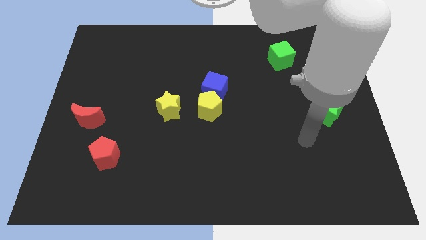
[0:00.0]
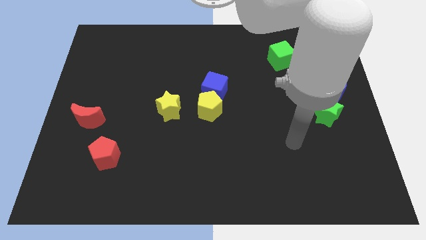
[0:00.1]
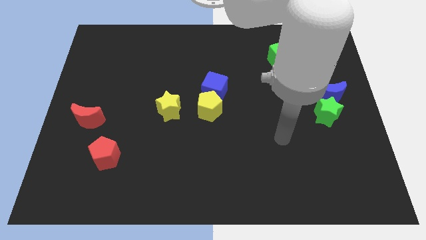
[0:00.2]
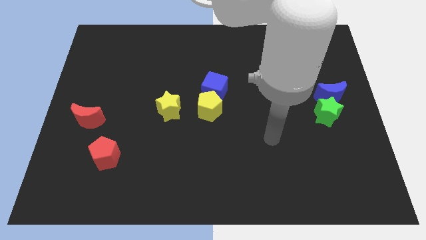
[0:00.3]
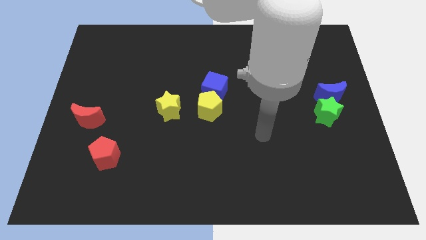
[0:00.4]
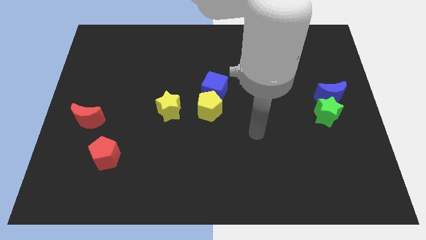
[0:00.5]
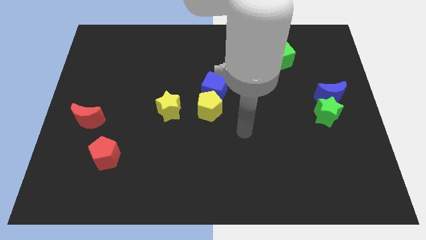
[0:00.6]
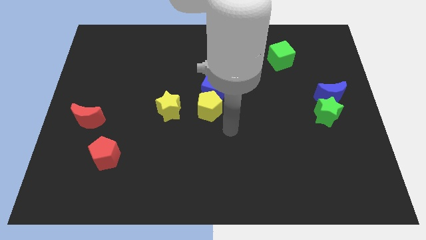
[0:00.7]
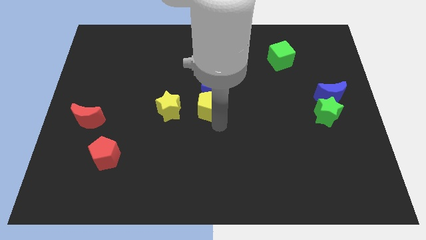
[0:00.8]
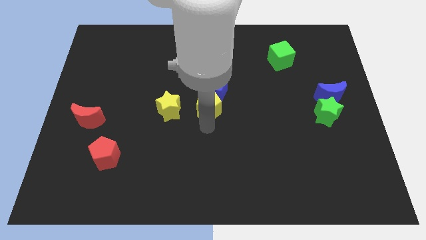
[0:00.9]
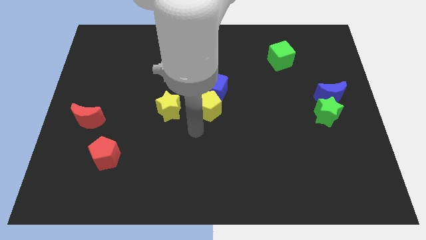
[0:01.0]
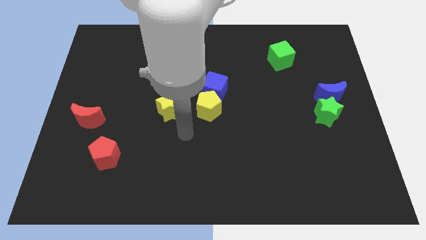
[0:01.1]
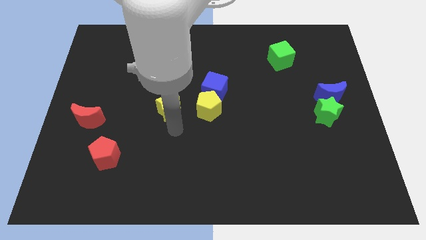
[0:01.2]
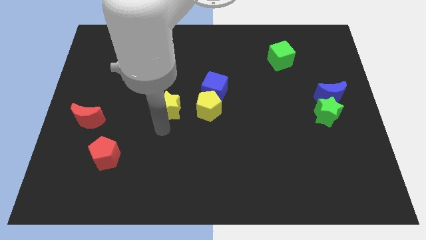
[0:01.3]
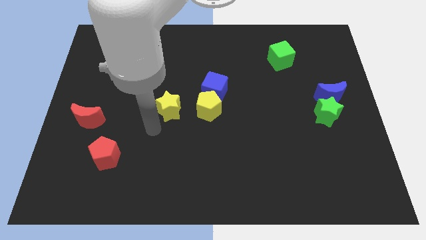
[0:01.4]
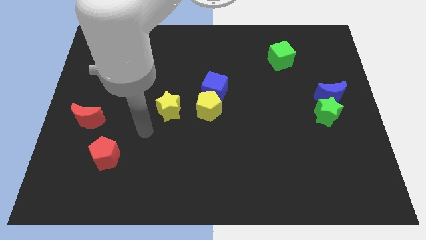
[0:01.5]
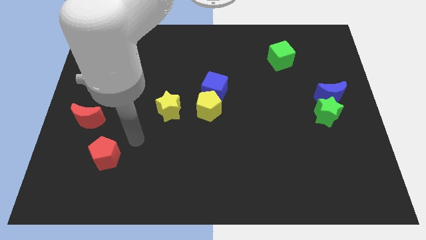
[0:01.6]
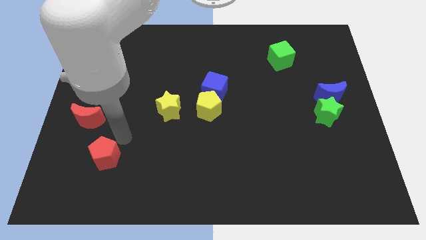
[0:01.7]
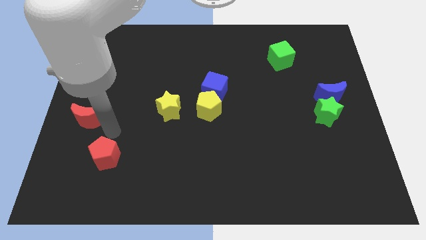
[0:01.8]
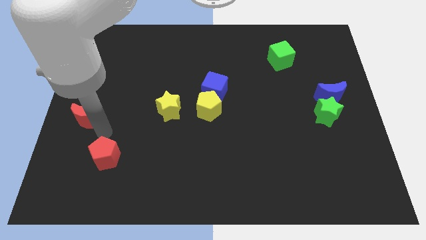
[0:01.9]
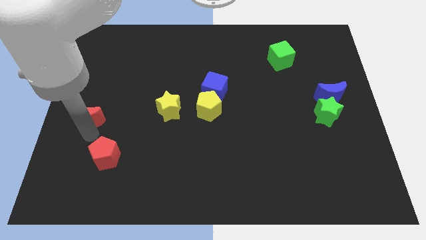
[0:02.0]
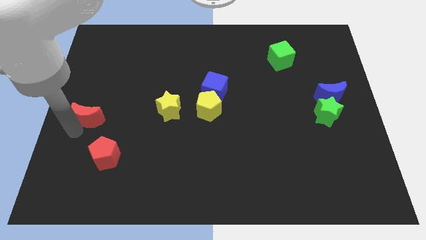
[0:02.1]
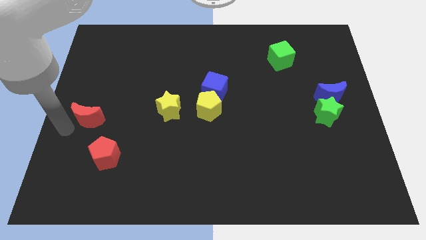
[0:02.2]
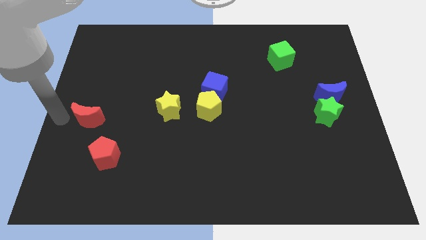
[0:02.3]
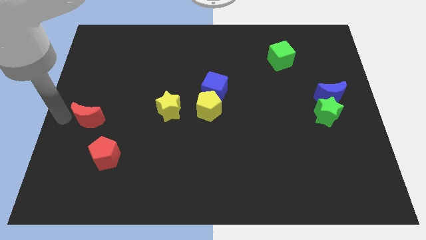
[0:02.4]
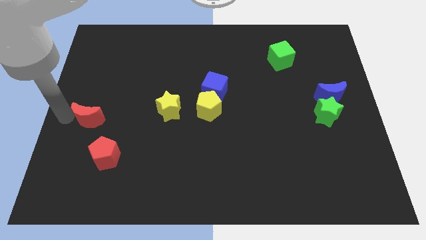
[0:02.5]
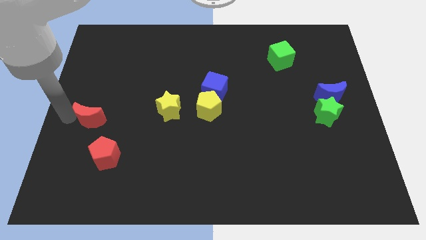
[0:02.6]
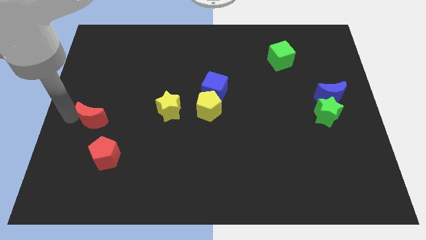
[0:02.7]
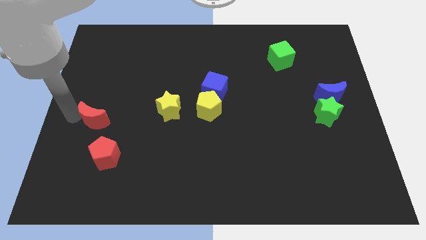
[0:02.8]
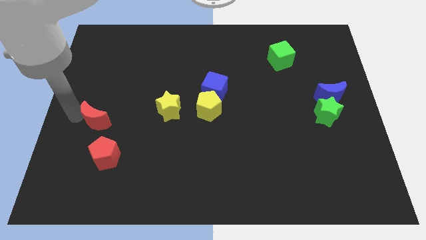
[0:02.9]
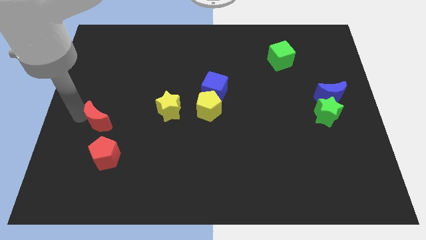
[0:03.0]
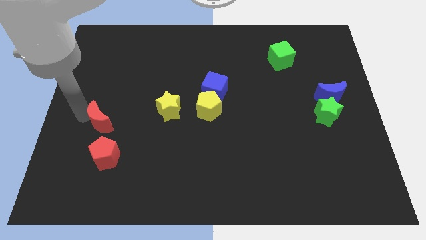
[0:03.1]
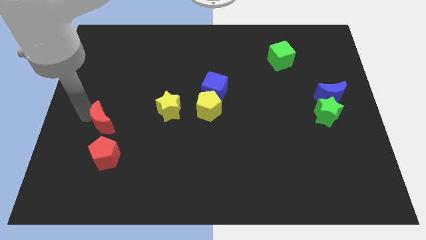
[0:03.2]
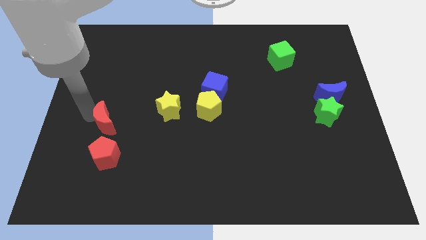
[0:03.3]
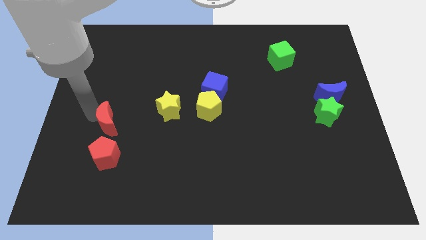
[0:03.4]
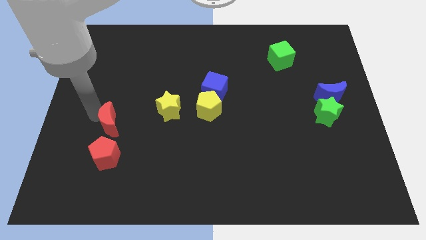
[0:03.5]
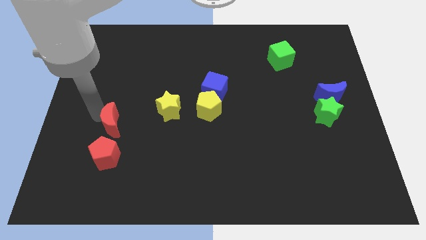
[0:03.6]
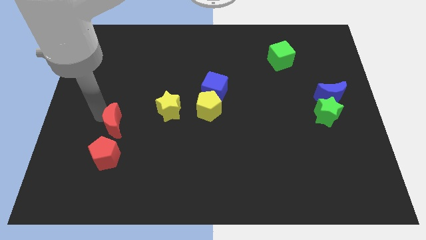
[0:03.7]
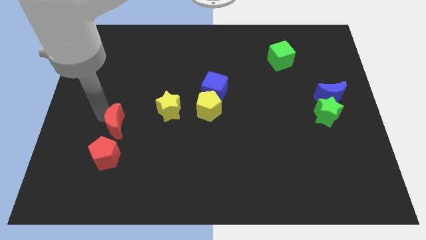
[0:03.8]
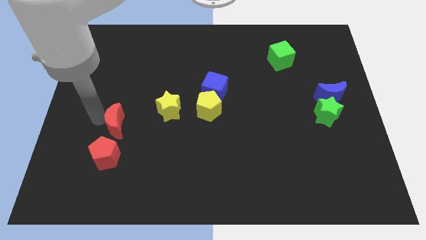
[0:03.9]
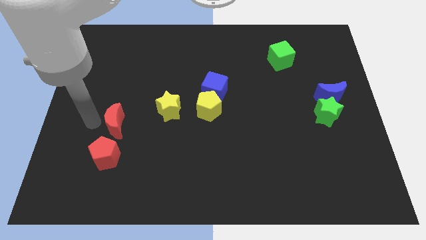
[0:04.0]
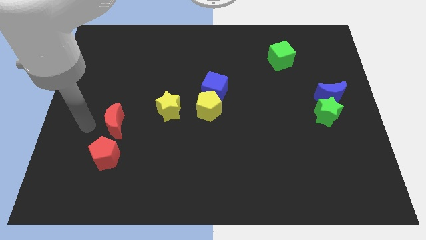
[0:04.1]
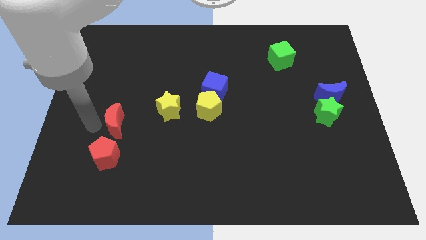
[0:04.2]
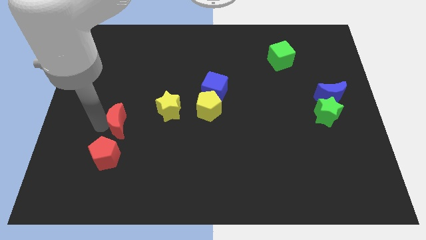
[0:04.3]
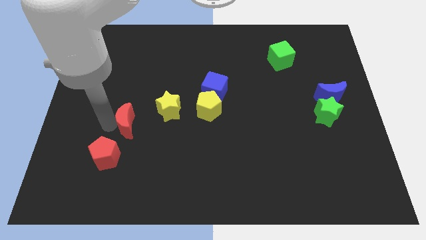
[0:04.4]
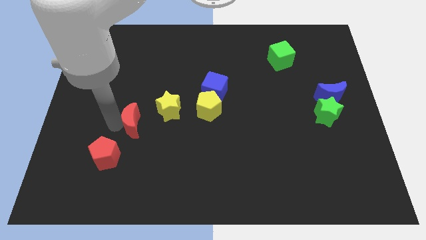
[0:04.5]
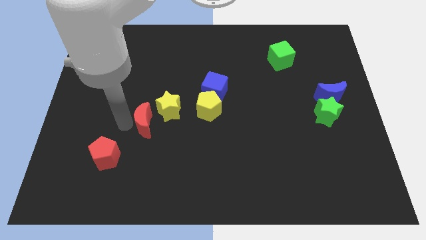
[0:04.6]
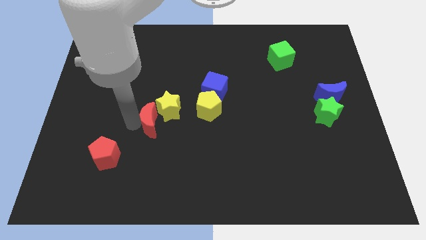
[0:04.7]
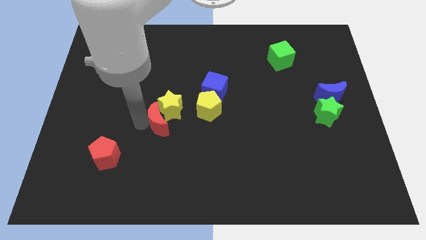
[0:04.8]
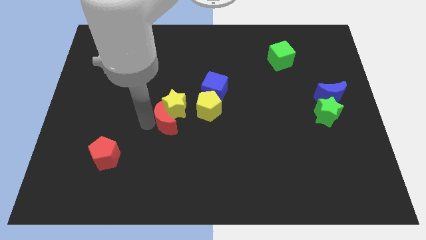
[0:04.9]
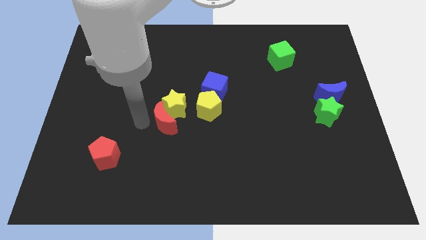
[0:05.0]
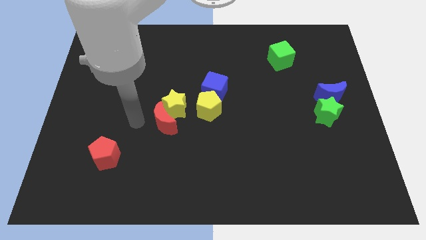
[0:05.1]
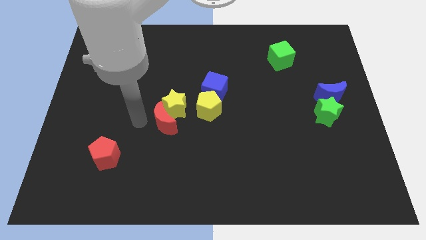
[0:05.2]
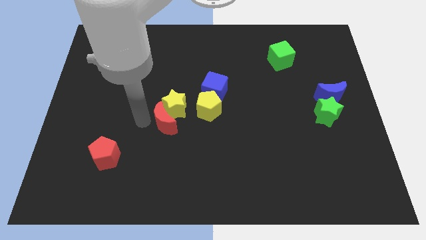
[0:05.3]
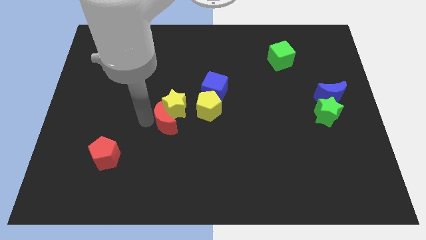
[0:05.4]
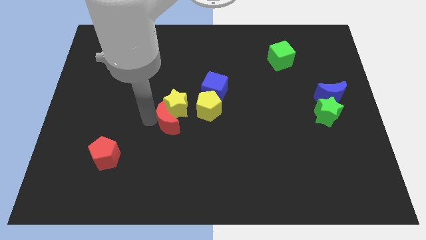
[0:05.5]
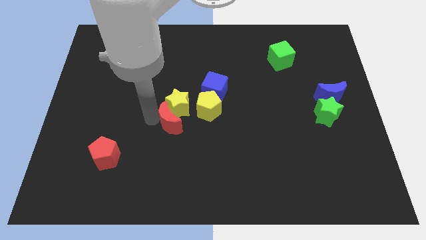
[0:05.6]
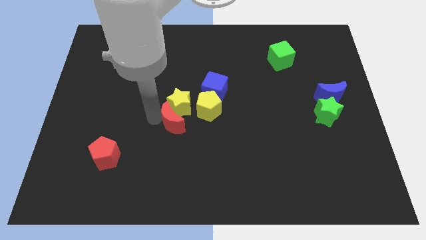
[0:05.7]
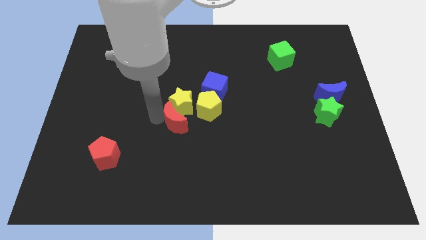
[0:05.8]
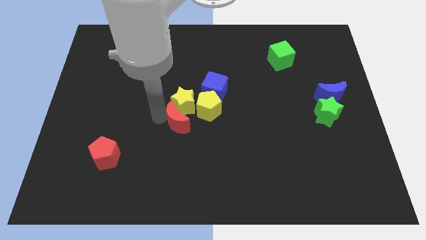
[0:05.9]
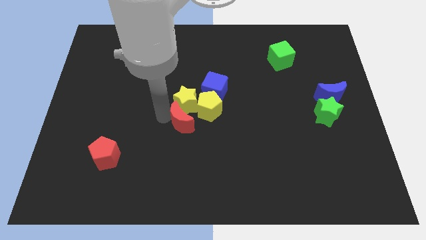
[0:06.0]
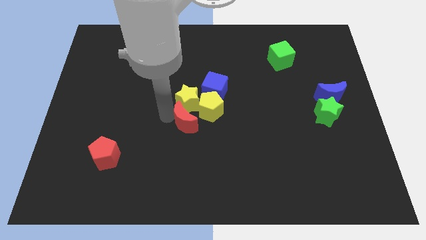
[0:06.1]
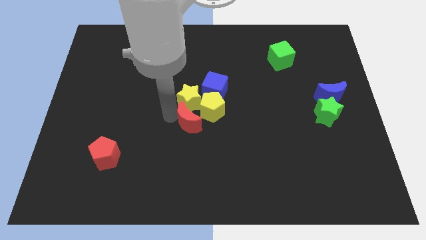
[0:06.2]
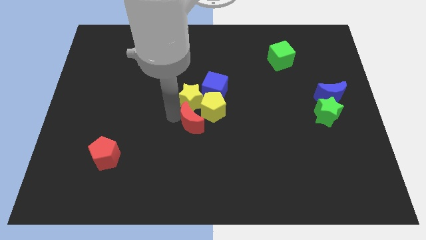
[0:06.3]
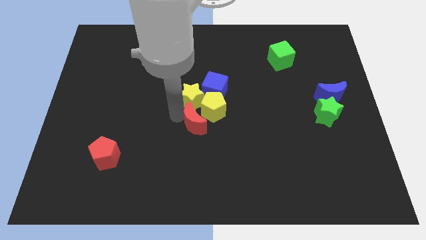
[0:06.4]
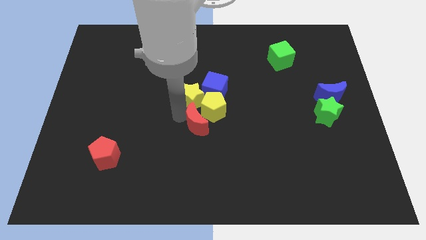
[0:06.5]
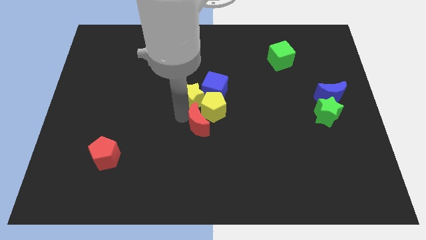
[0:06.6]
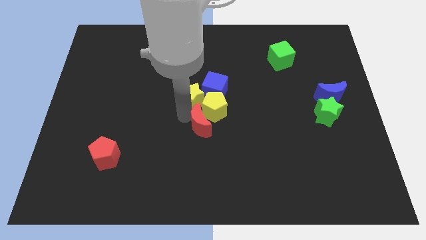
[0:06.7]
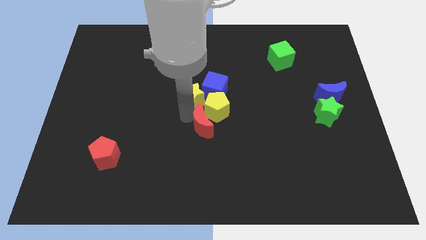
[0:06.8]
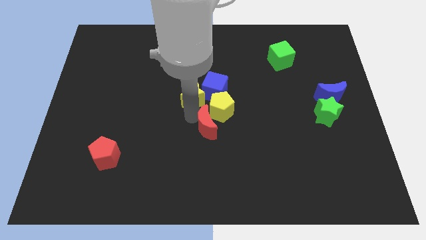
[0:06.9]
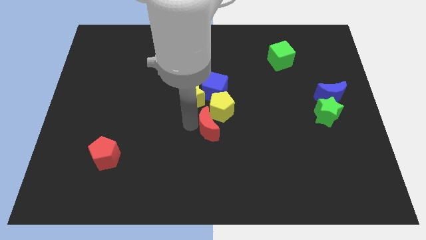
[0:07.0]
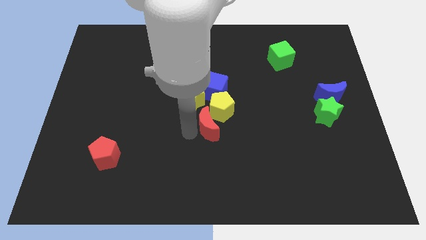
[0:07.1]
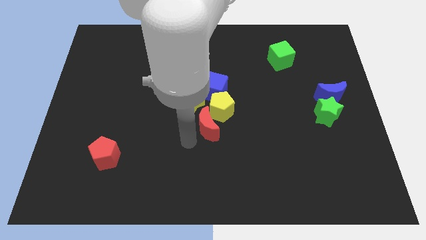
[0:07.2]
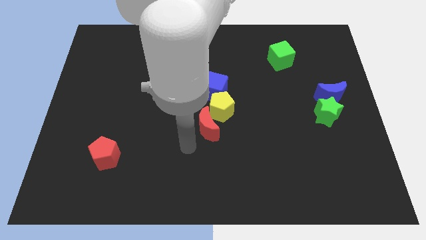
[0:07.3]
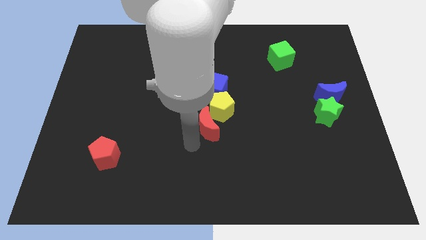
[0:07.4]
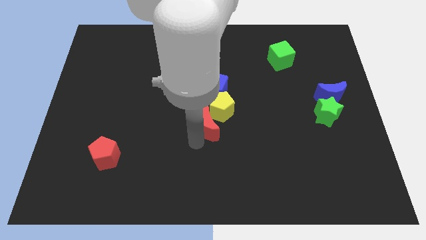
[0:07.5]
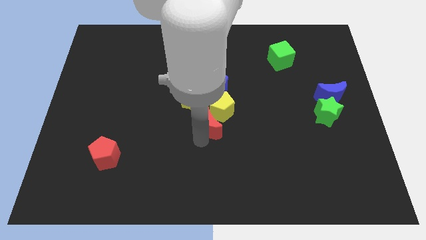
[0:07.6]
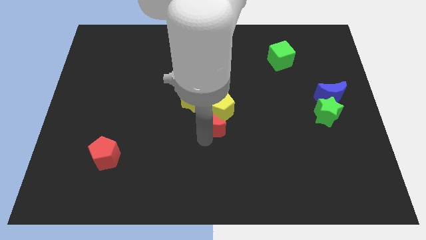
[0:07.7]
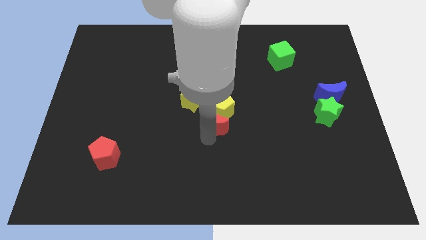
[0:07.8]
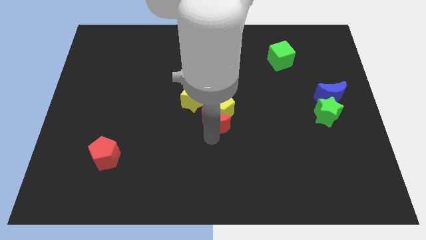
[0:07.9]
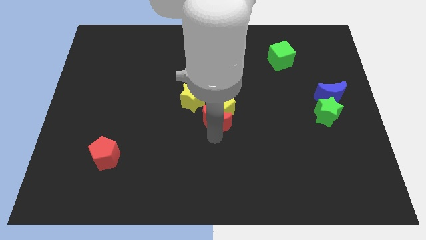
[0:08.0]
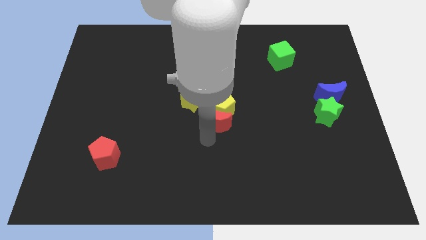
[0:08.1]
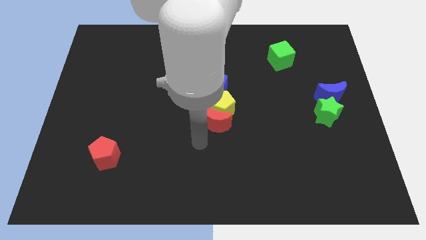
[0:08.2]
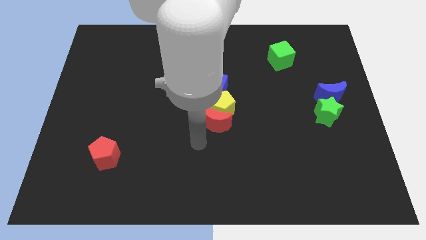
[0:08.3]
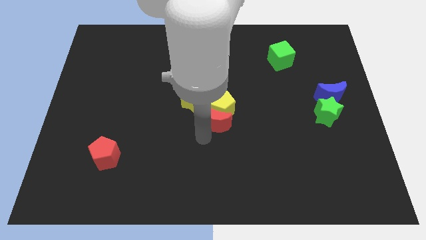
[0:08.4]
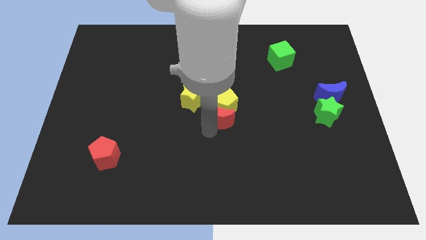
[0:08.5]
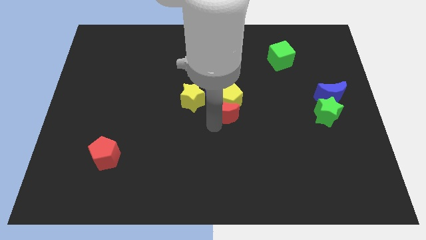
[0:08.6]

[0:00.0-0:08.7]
move the red moon just right of the yellow star
